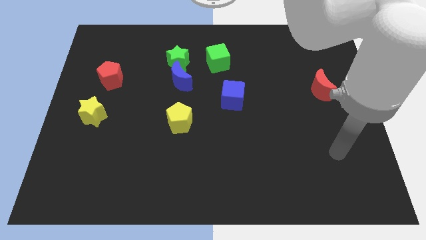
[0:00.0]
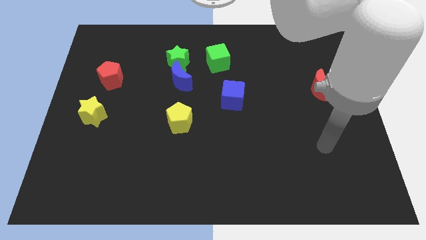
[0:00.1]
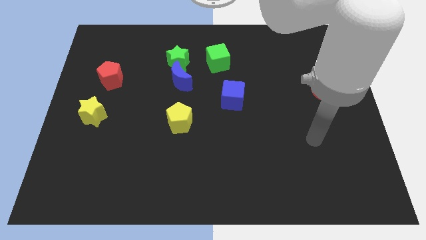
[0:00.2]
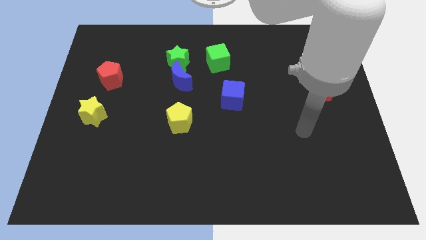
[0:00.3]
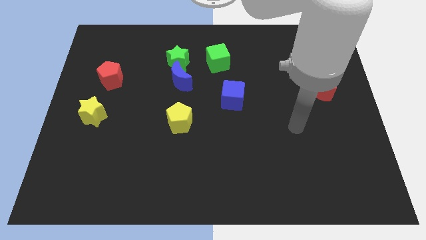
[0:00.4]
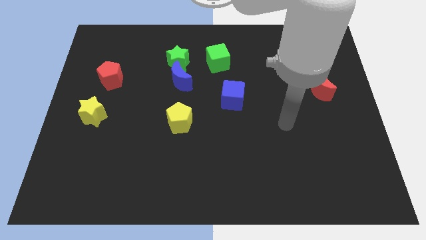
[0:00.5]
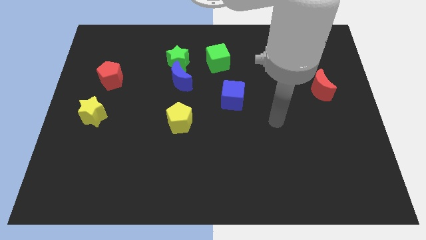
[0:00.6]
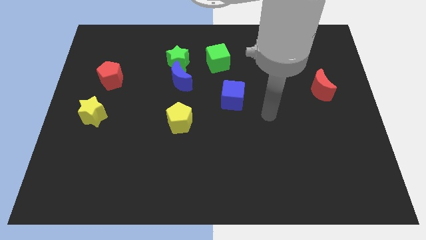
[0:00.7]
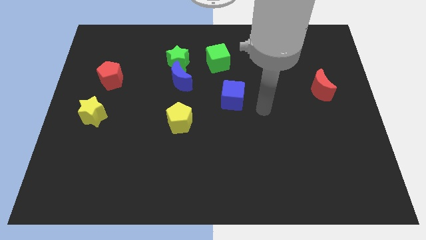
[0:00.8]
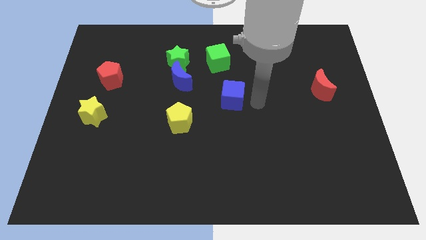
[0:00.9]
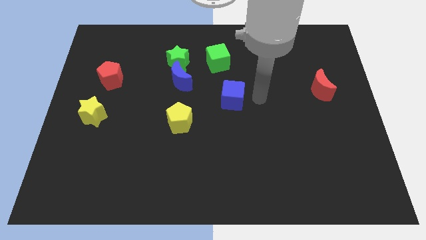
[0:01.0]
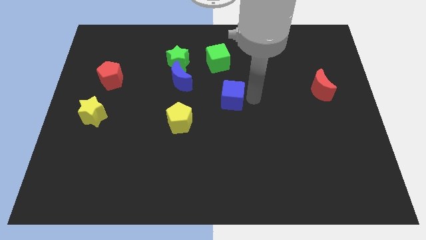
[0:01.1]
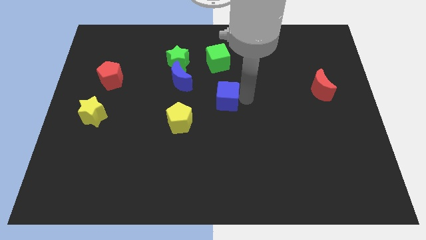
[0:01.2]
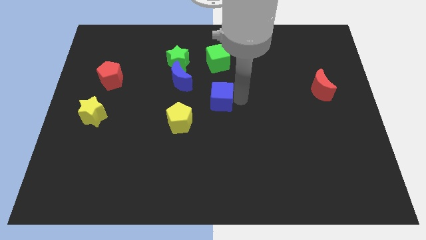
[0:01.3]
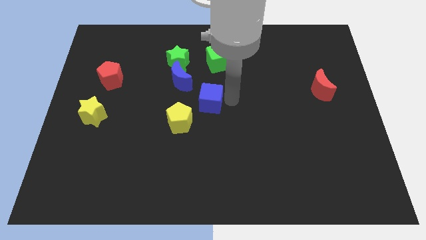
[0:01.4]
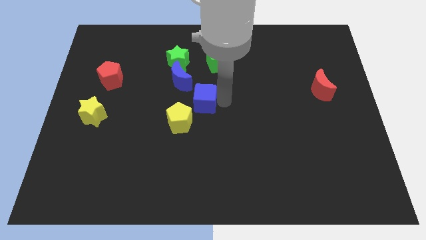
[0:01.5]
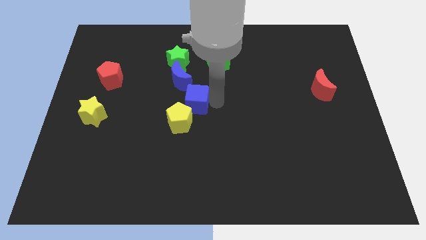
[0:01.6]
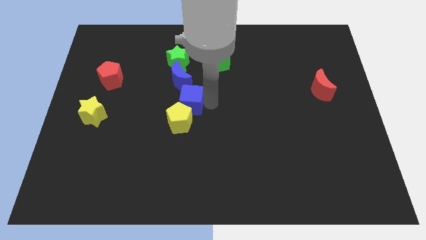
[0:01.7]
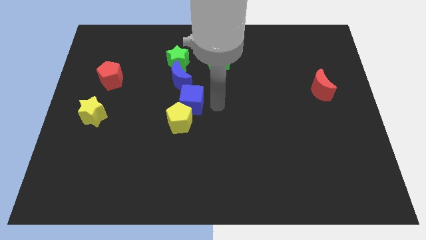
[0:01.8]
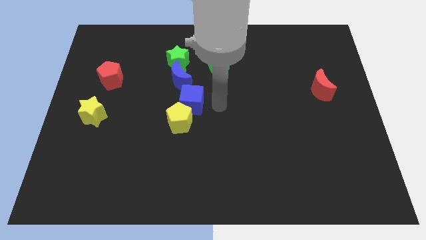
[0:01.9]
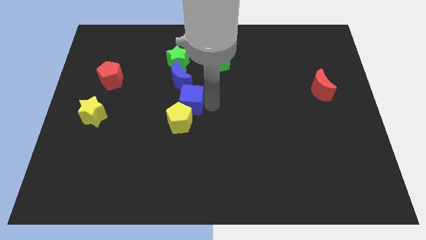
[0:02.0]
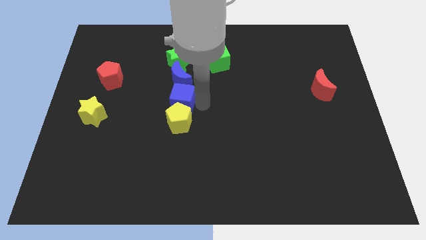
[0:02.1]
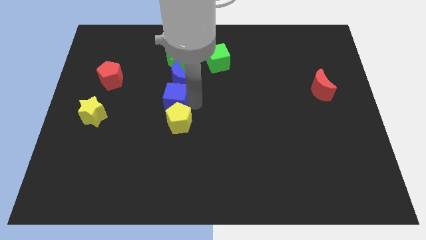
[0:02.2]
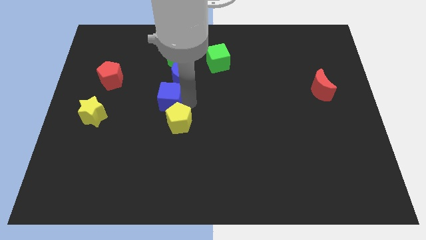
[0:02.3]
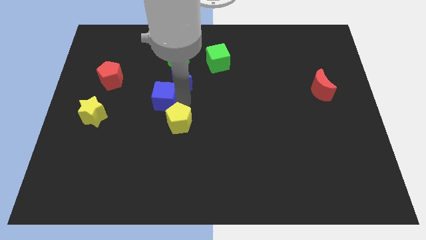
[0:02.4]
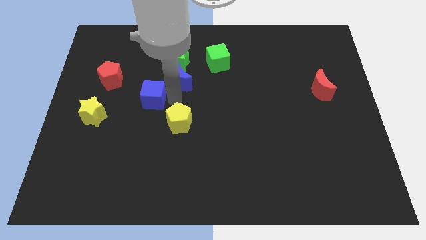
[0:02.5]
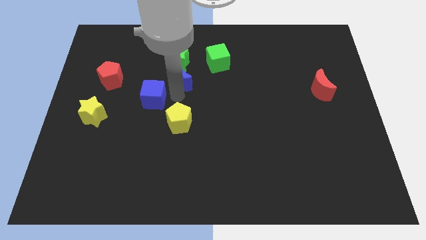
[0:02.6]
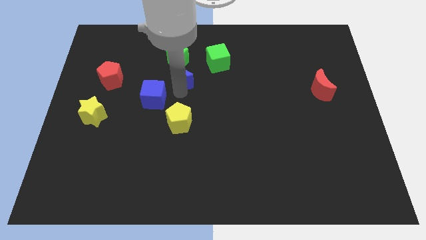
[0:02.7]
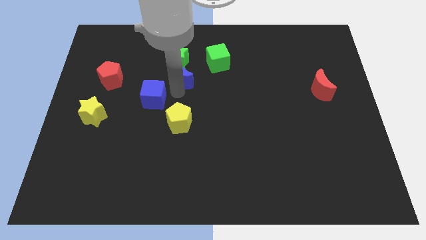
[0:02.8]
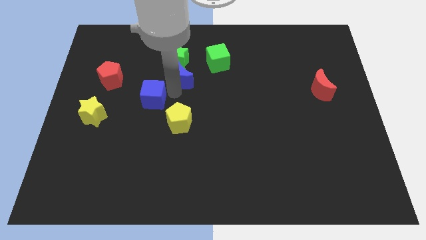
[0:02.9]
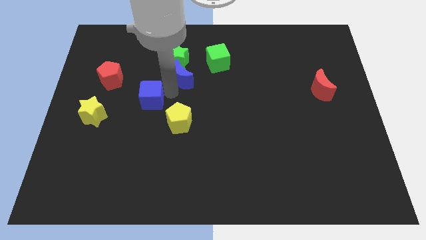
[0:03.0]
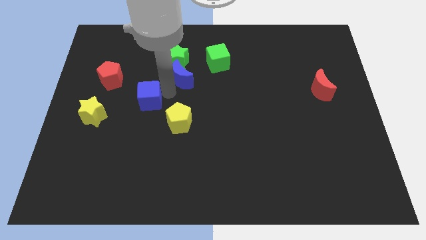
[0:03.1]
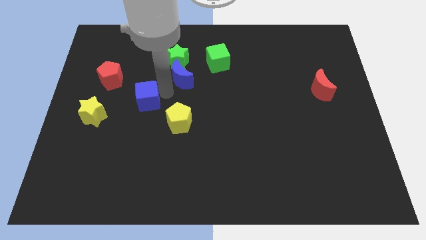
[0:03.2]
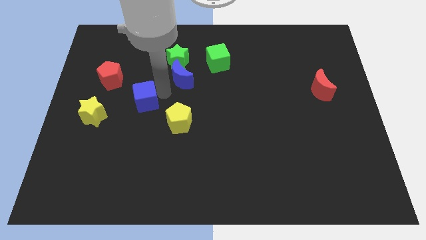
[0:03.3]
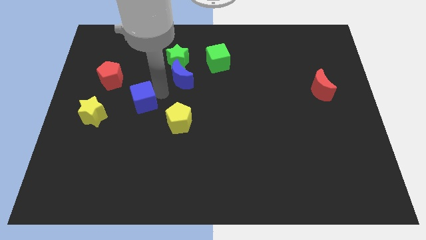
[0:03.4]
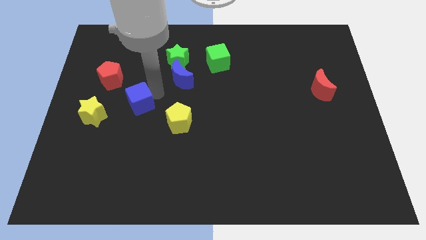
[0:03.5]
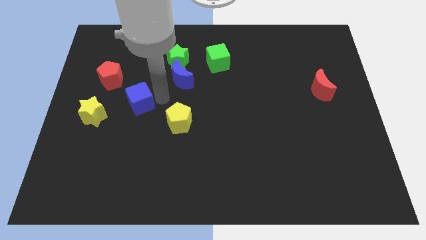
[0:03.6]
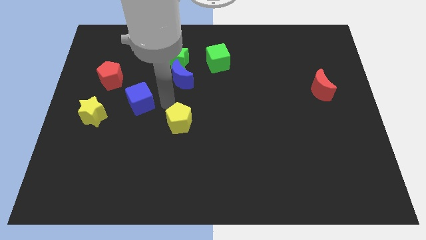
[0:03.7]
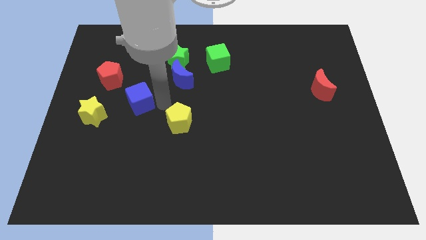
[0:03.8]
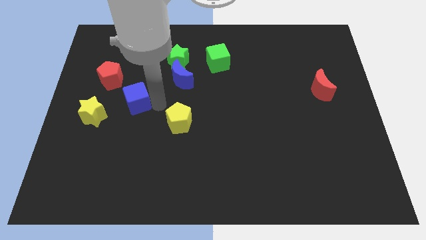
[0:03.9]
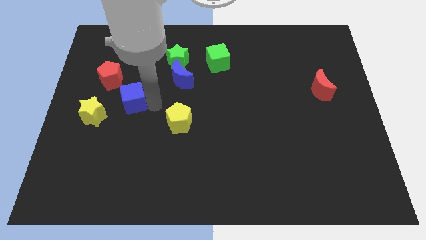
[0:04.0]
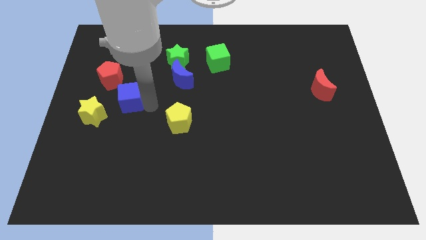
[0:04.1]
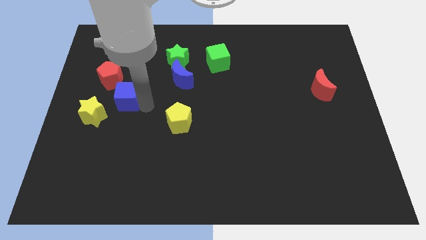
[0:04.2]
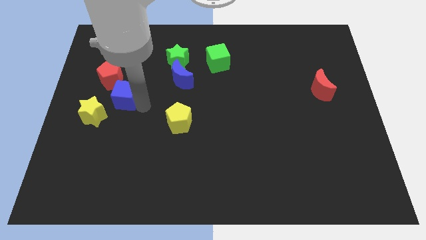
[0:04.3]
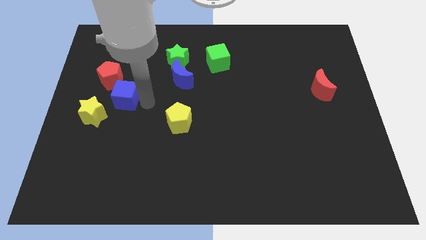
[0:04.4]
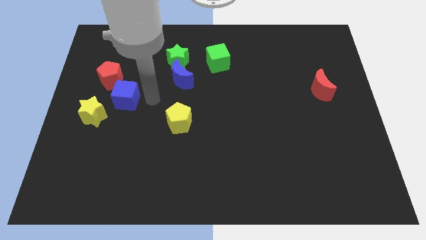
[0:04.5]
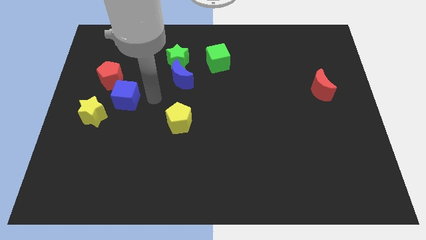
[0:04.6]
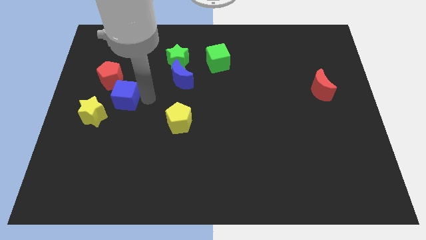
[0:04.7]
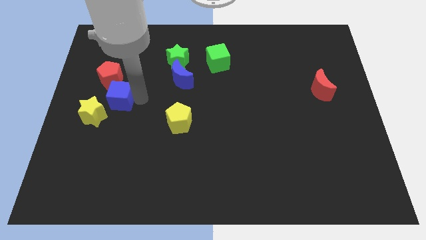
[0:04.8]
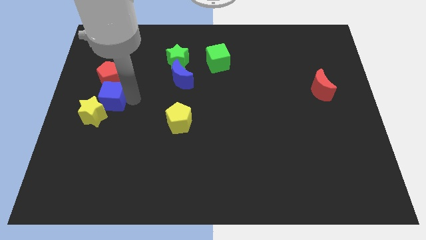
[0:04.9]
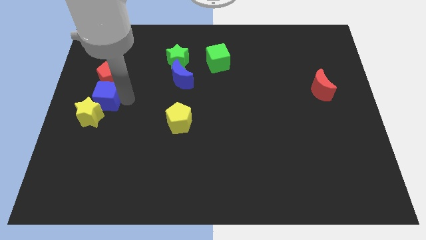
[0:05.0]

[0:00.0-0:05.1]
push the blue cube to the left side
